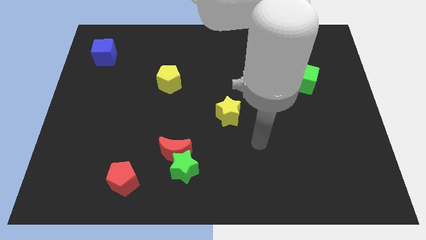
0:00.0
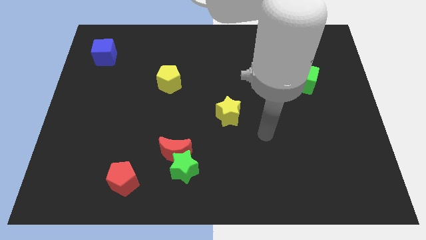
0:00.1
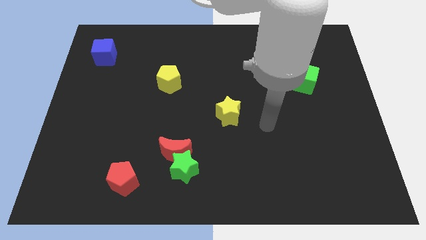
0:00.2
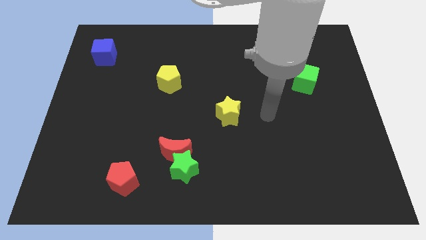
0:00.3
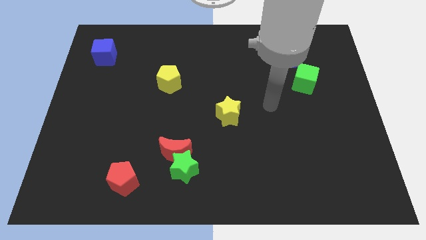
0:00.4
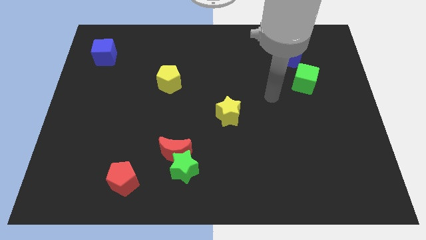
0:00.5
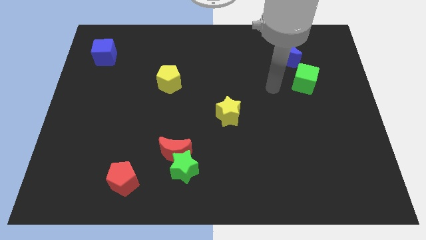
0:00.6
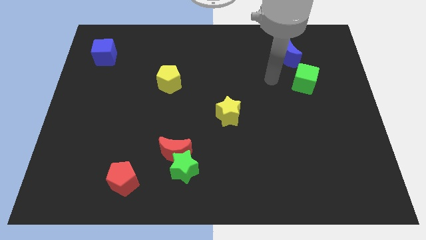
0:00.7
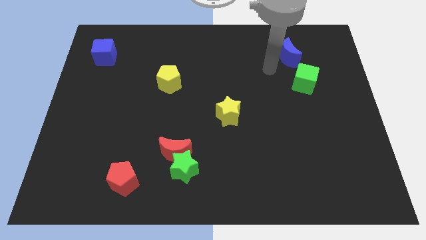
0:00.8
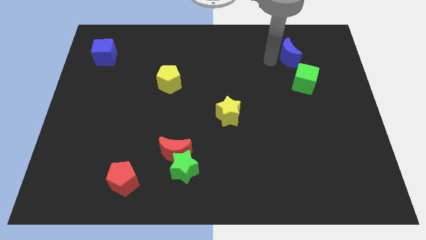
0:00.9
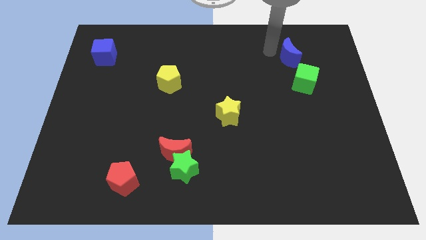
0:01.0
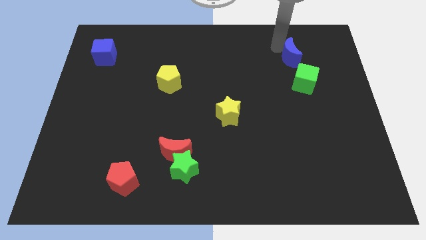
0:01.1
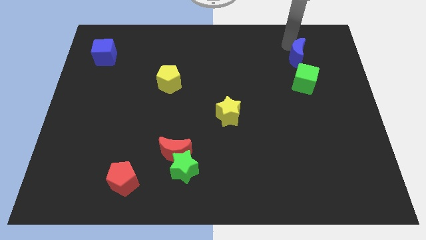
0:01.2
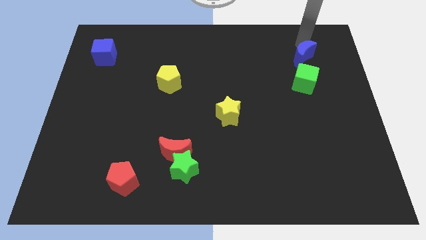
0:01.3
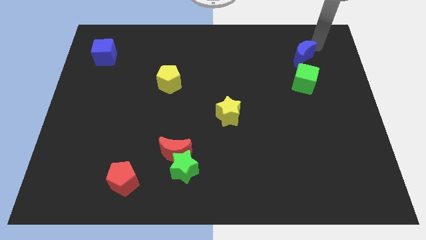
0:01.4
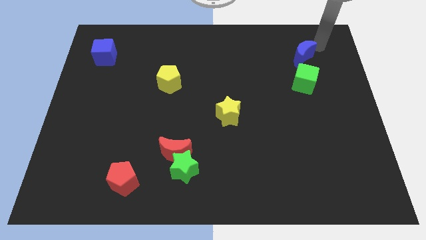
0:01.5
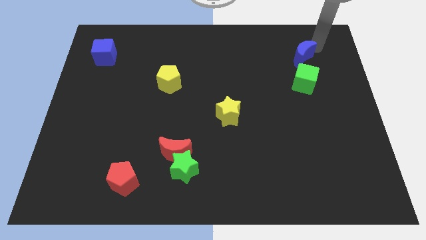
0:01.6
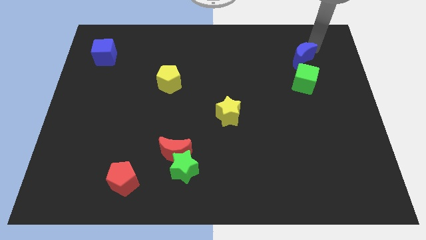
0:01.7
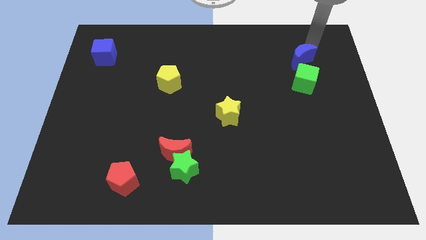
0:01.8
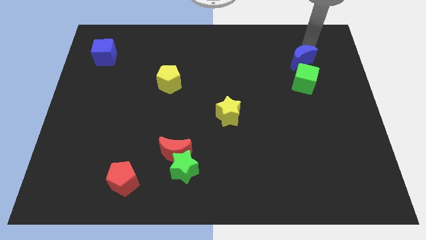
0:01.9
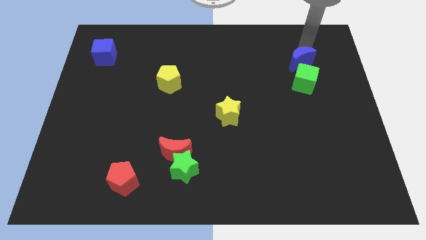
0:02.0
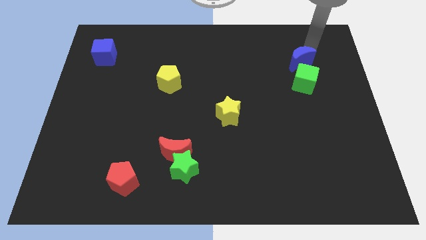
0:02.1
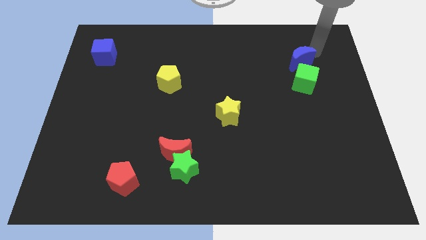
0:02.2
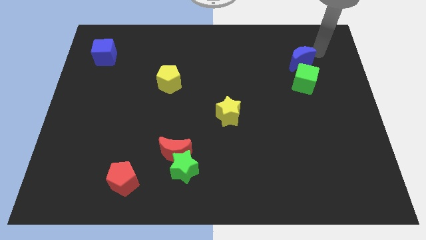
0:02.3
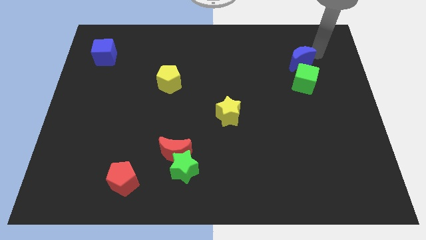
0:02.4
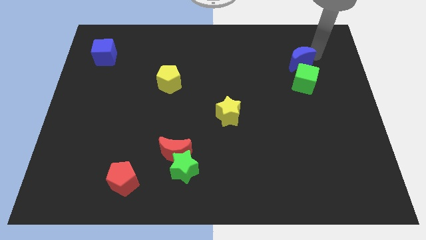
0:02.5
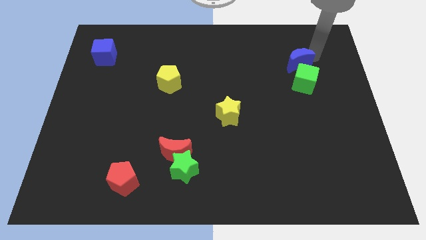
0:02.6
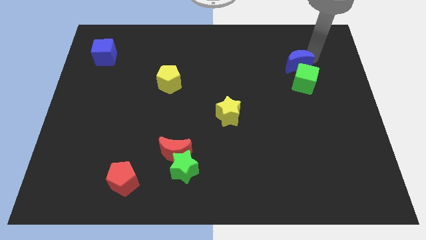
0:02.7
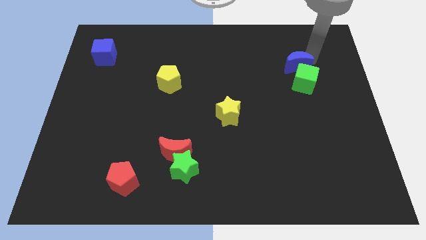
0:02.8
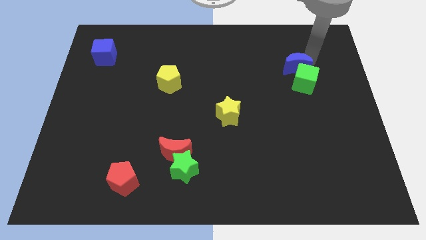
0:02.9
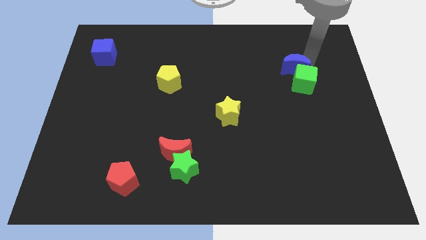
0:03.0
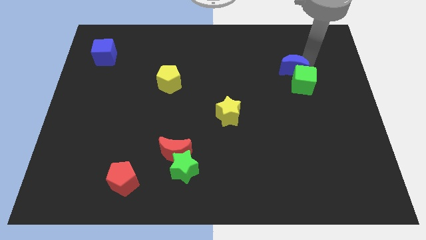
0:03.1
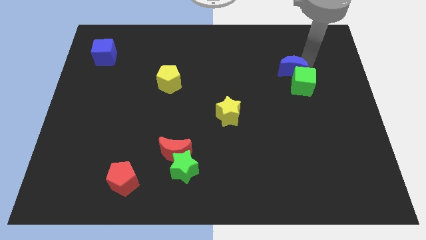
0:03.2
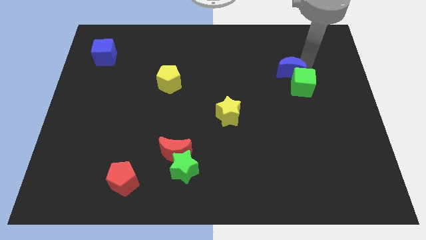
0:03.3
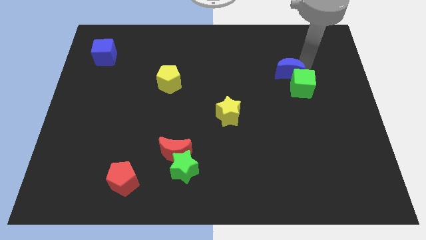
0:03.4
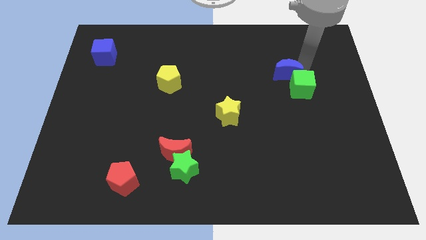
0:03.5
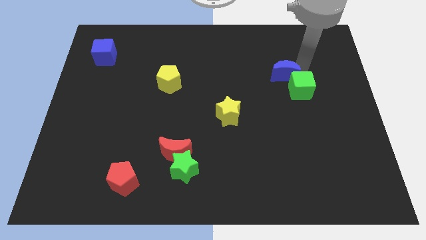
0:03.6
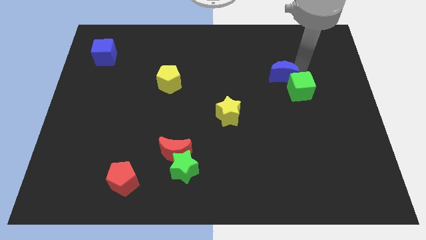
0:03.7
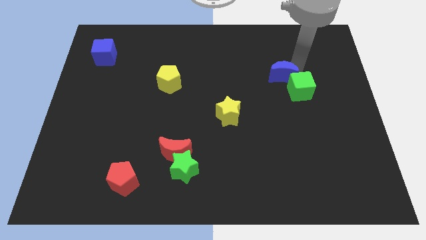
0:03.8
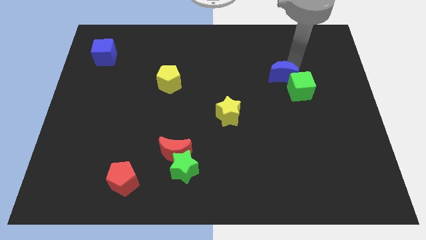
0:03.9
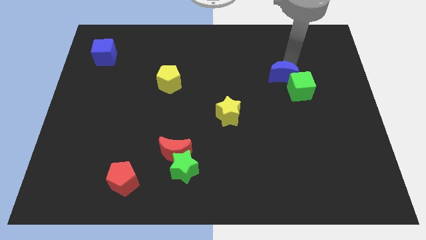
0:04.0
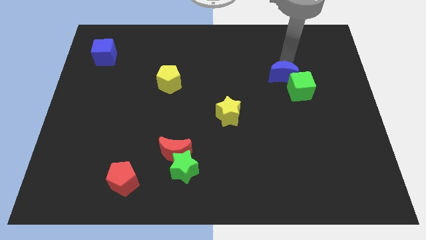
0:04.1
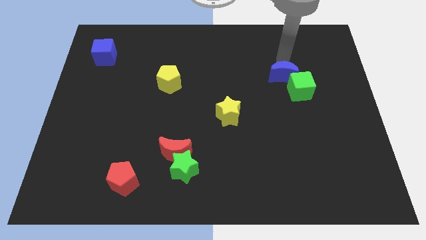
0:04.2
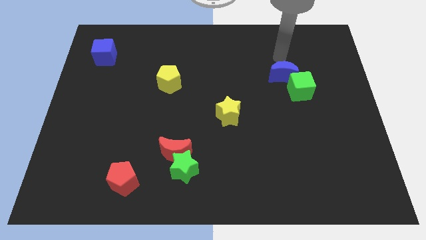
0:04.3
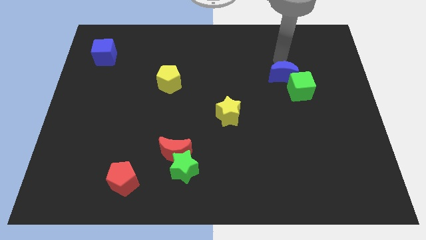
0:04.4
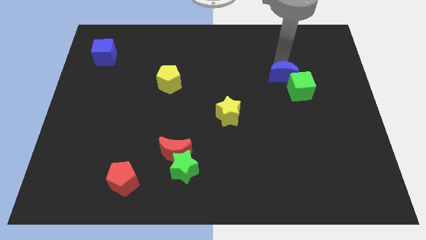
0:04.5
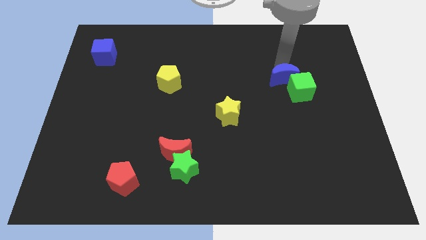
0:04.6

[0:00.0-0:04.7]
slightly move the blue moon down

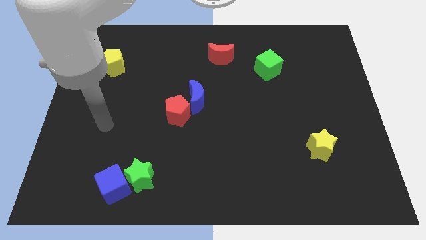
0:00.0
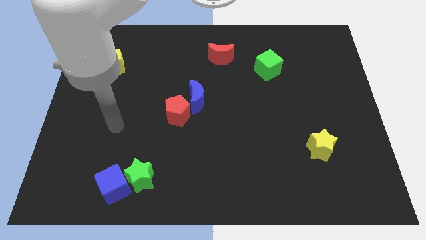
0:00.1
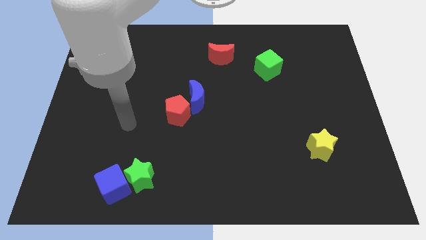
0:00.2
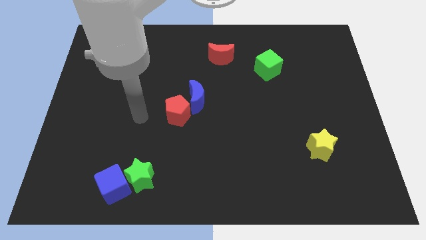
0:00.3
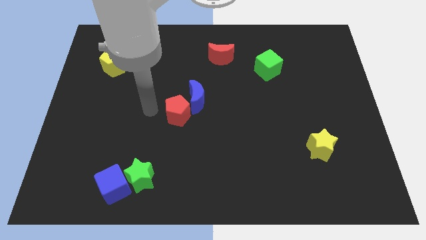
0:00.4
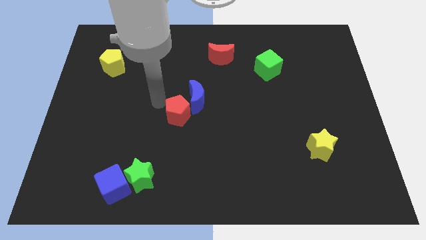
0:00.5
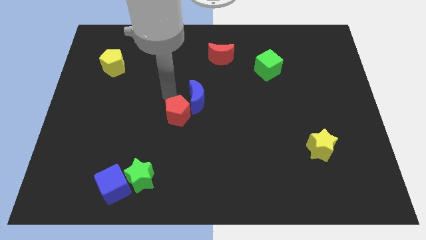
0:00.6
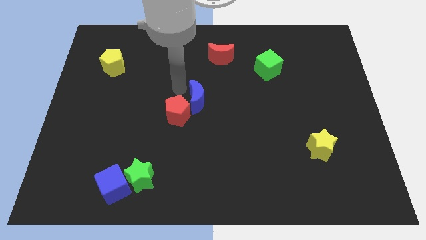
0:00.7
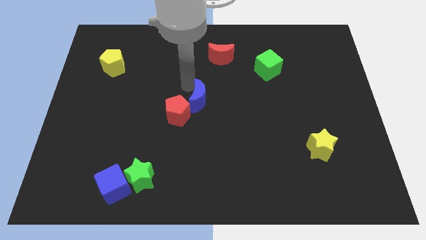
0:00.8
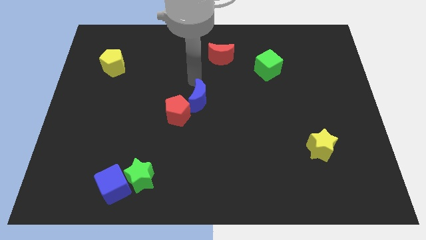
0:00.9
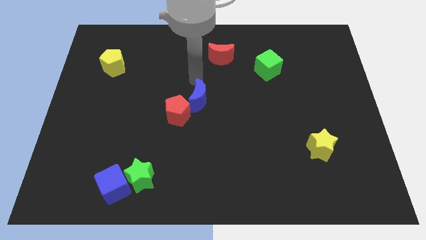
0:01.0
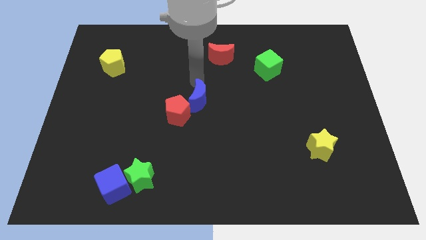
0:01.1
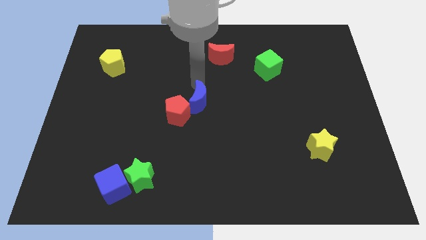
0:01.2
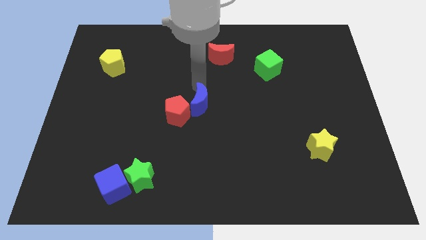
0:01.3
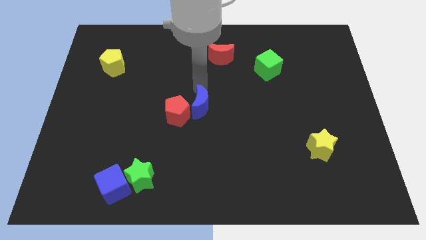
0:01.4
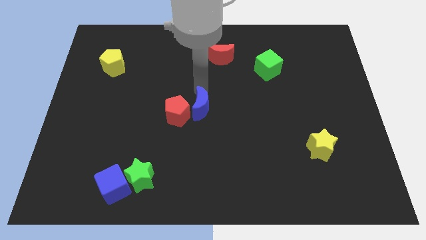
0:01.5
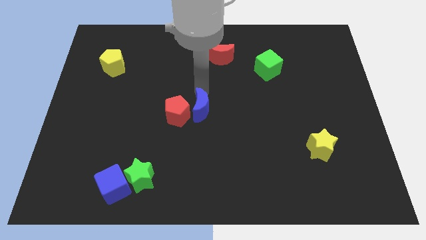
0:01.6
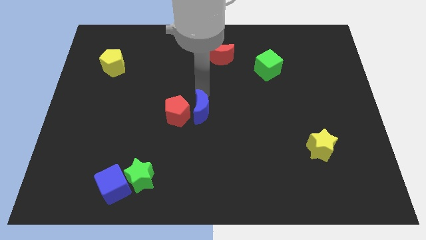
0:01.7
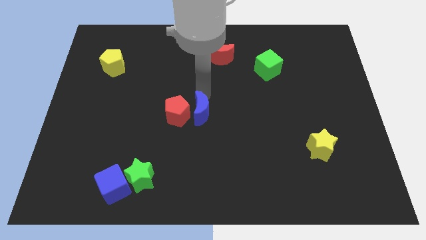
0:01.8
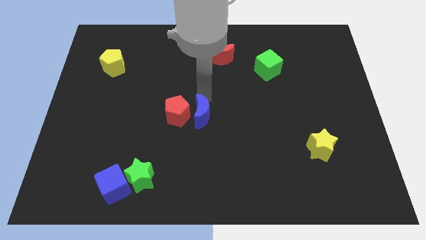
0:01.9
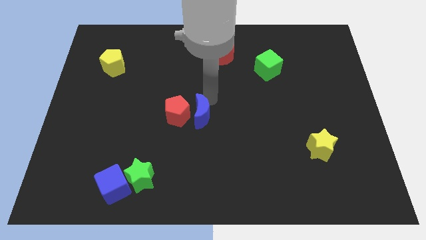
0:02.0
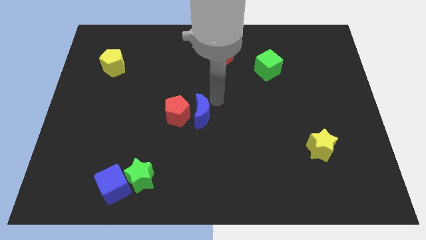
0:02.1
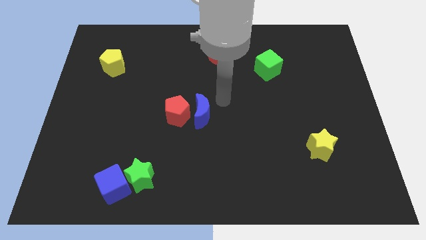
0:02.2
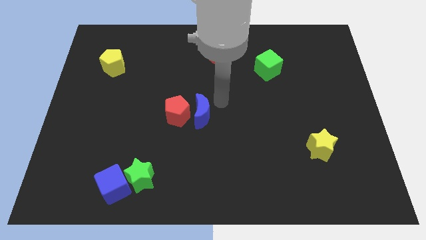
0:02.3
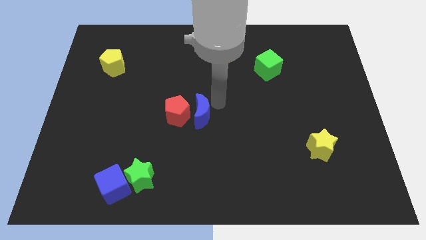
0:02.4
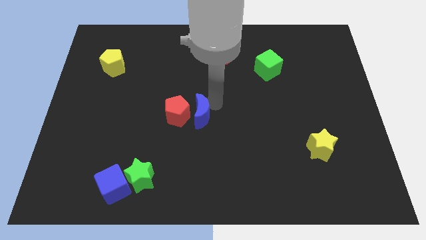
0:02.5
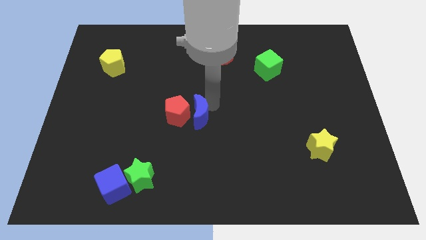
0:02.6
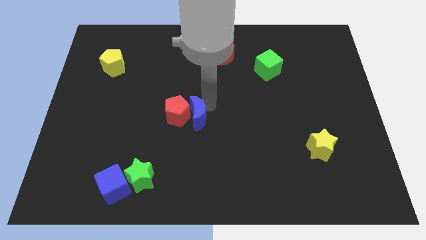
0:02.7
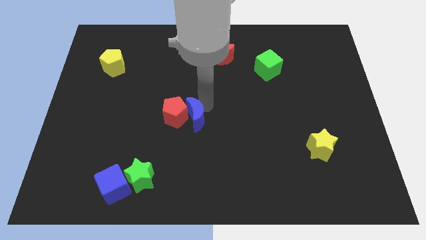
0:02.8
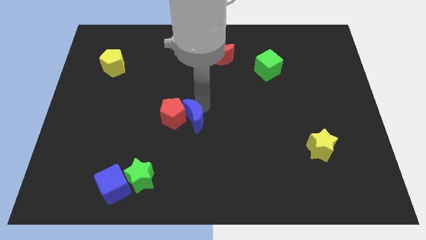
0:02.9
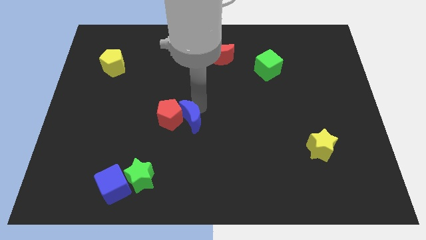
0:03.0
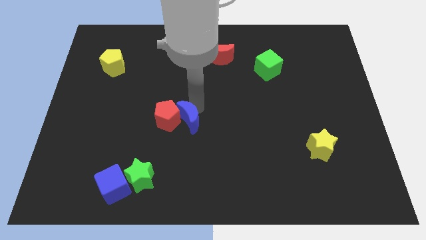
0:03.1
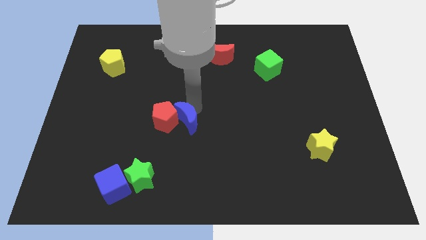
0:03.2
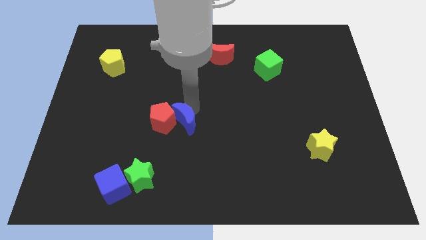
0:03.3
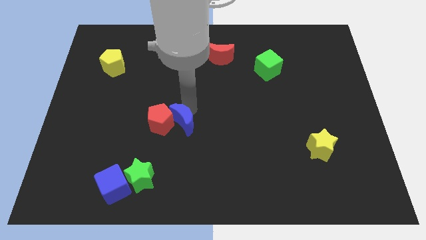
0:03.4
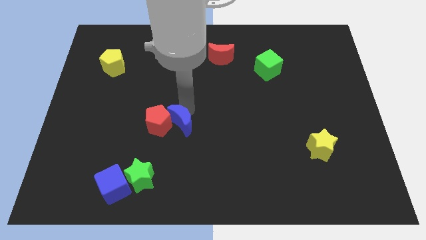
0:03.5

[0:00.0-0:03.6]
push the blue moon downwards and left a little bit
